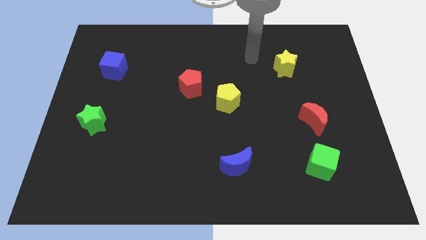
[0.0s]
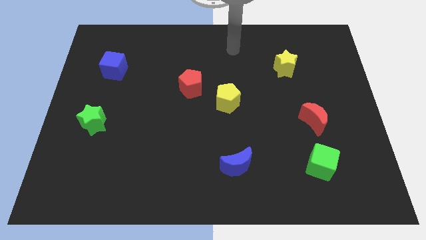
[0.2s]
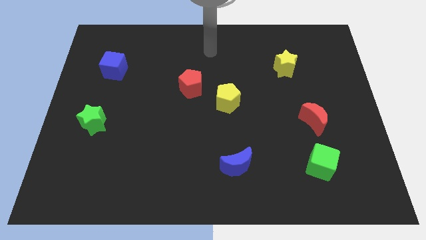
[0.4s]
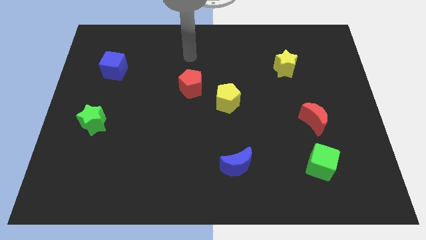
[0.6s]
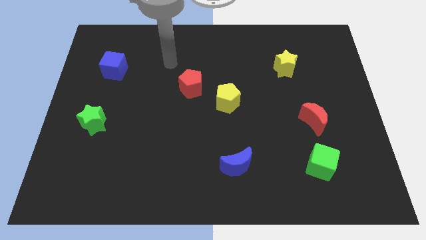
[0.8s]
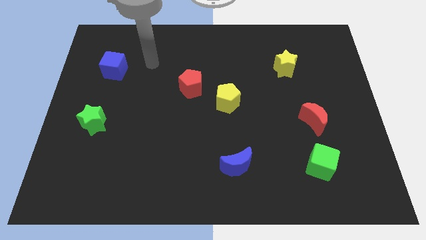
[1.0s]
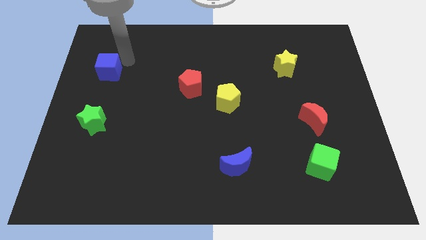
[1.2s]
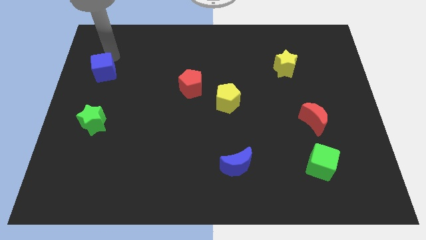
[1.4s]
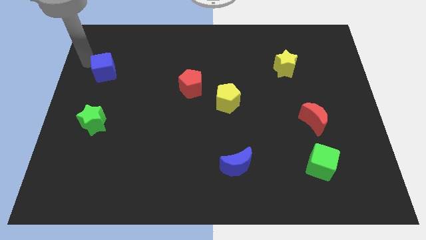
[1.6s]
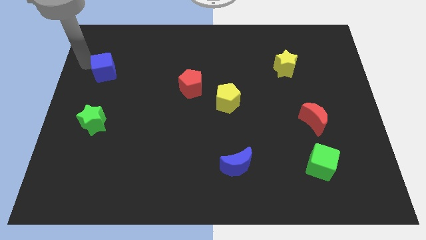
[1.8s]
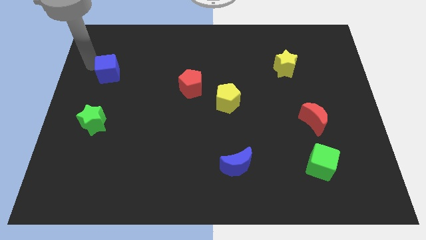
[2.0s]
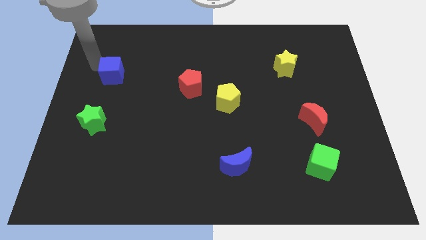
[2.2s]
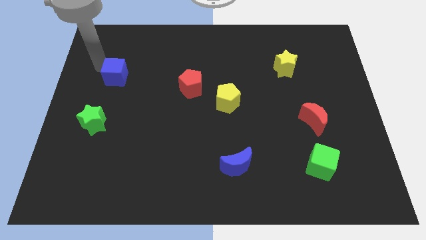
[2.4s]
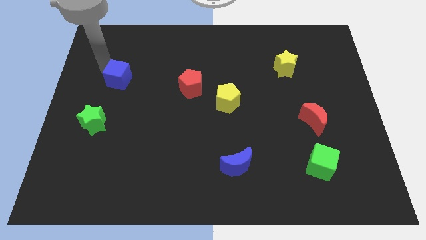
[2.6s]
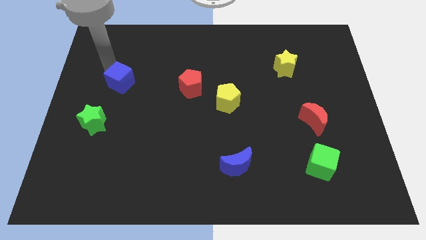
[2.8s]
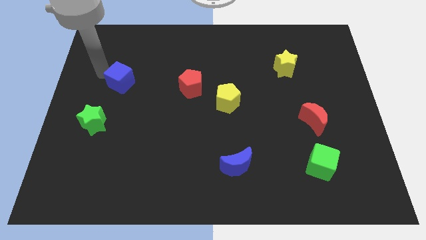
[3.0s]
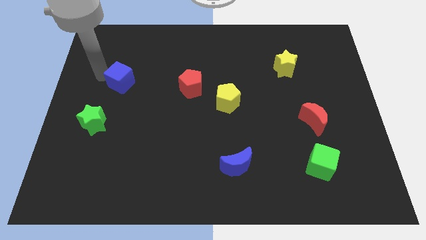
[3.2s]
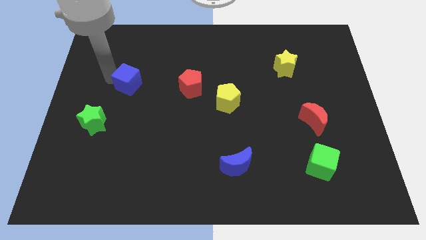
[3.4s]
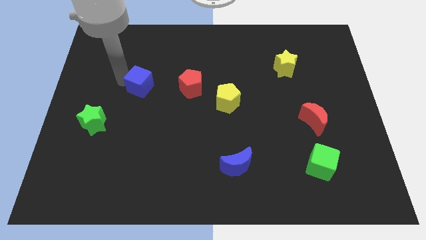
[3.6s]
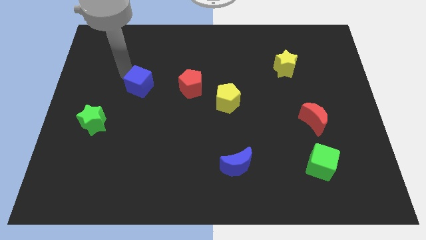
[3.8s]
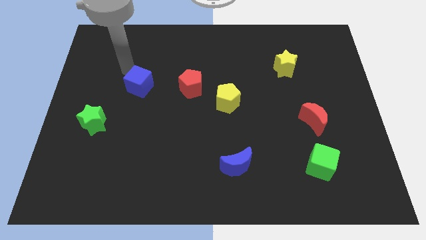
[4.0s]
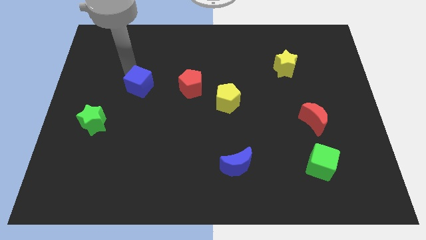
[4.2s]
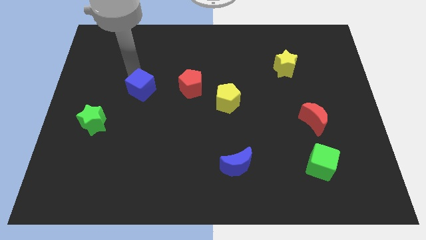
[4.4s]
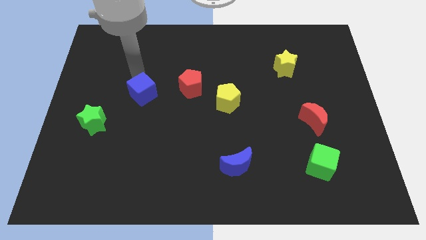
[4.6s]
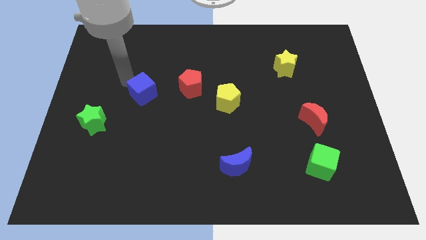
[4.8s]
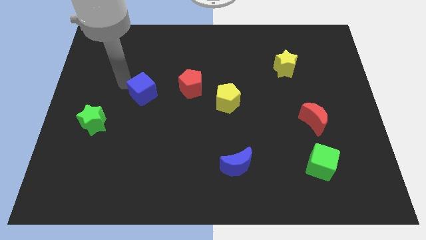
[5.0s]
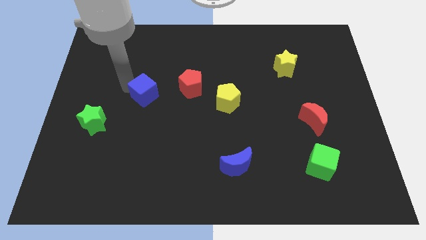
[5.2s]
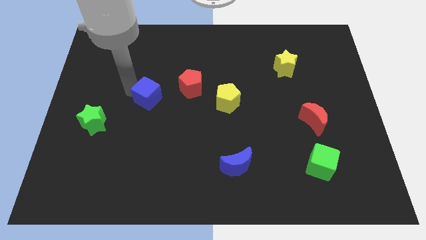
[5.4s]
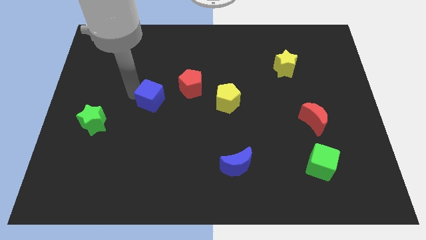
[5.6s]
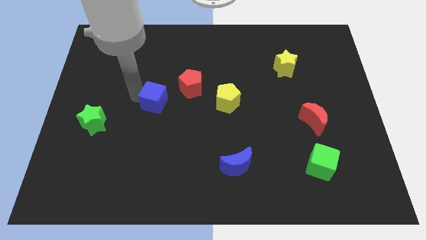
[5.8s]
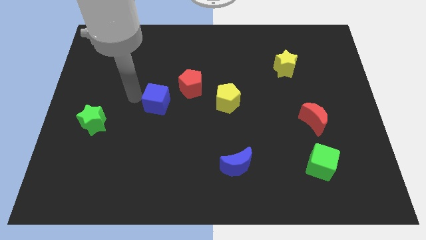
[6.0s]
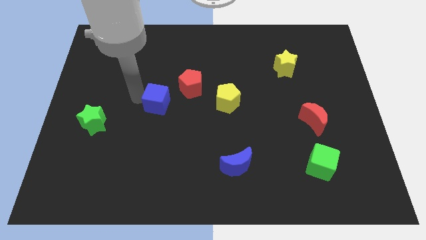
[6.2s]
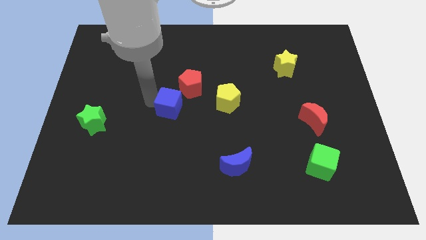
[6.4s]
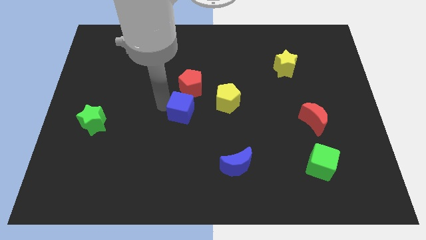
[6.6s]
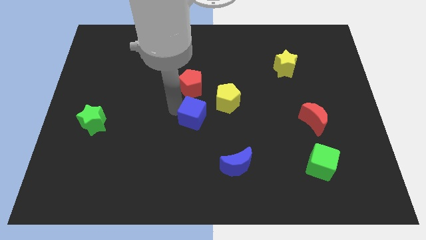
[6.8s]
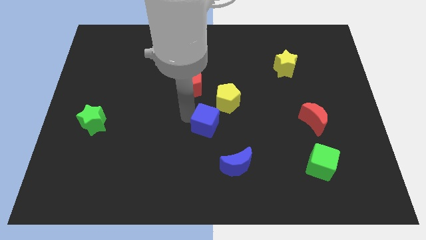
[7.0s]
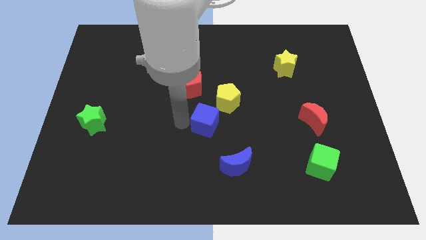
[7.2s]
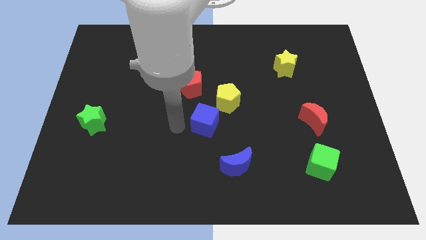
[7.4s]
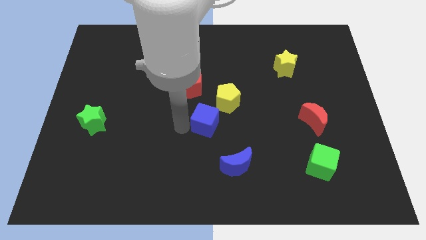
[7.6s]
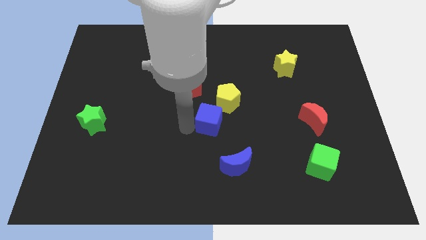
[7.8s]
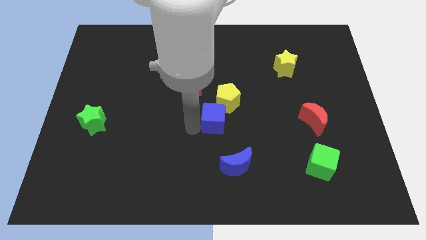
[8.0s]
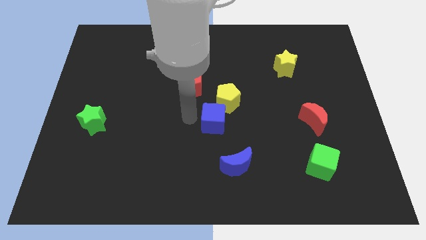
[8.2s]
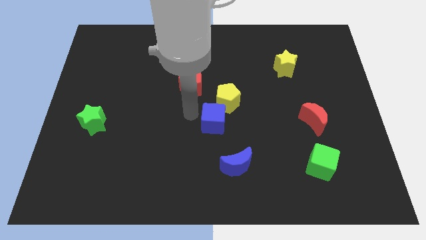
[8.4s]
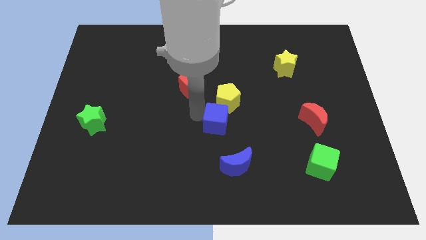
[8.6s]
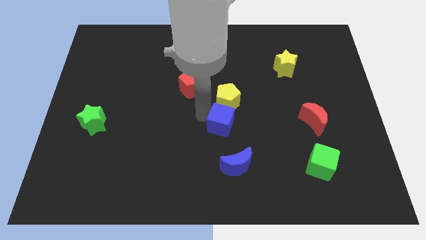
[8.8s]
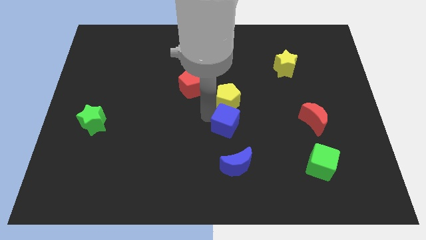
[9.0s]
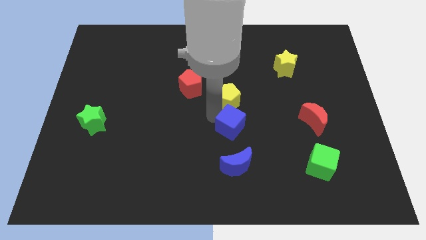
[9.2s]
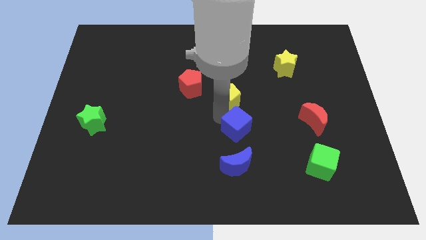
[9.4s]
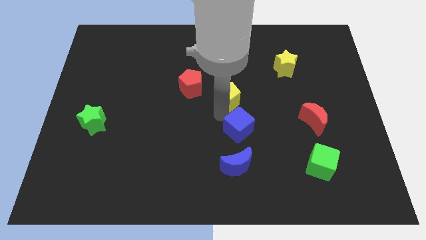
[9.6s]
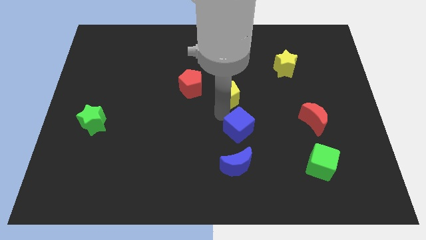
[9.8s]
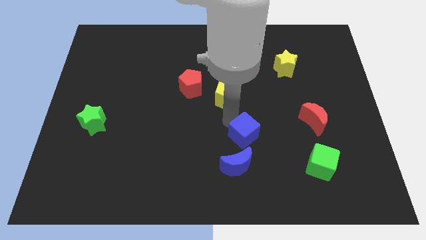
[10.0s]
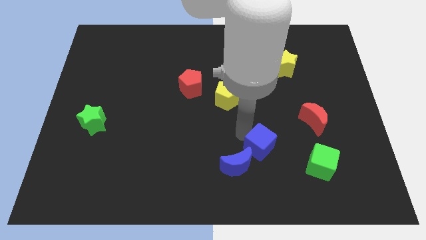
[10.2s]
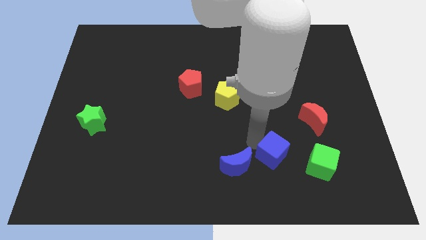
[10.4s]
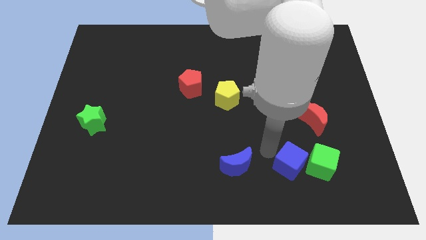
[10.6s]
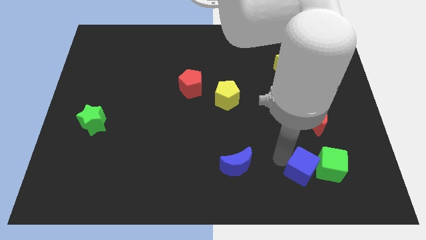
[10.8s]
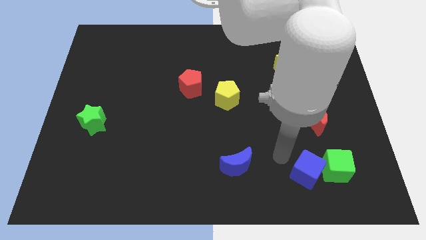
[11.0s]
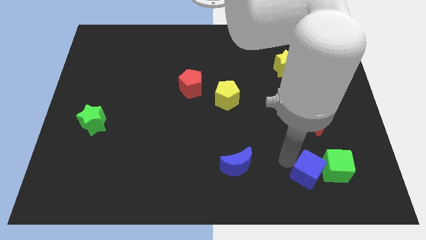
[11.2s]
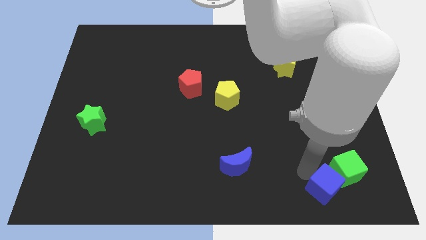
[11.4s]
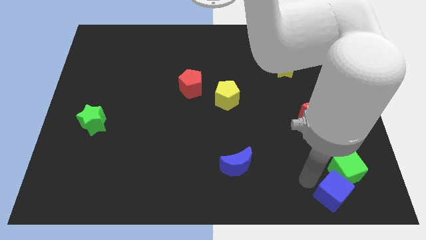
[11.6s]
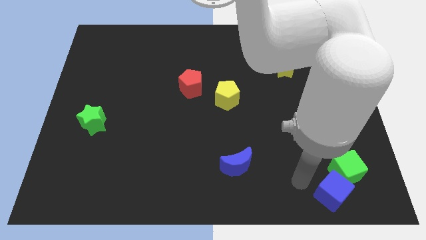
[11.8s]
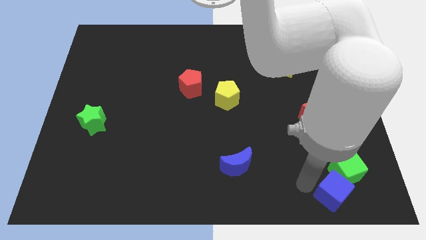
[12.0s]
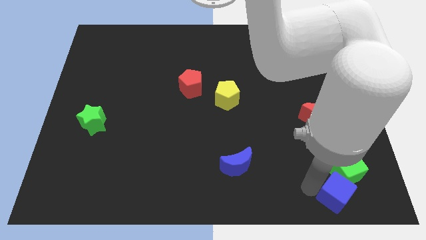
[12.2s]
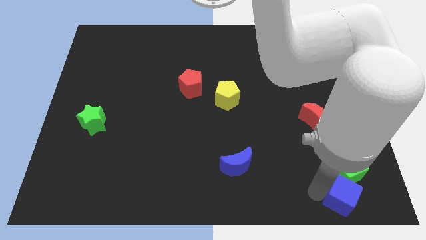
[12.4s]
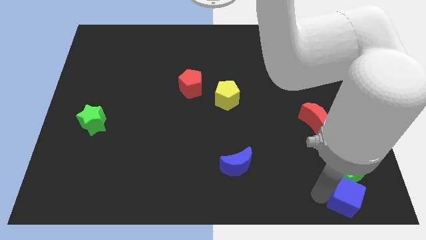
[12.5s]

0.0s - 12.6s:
move the blue cube to the bottom right

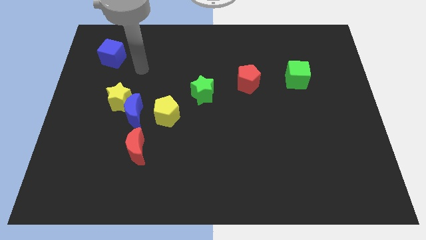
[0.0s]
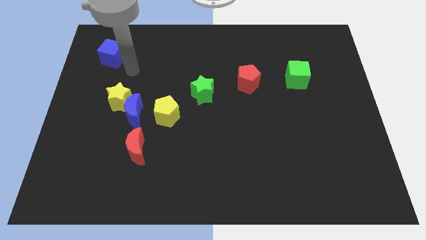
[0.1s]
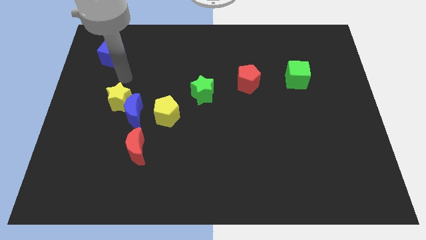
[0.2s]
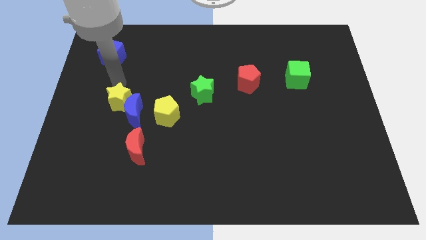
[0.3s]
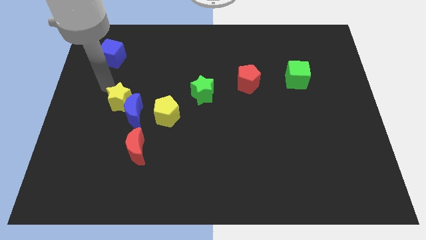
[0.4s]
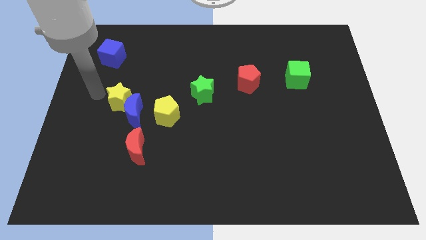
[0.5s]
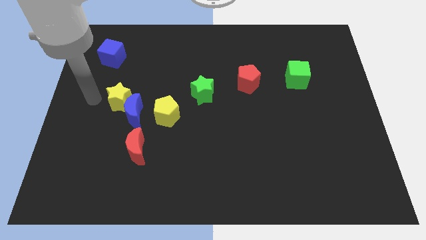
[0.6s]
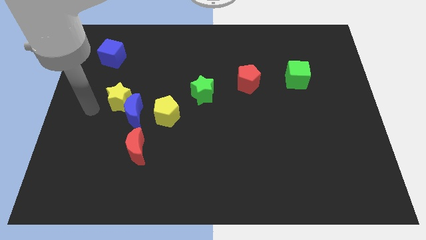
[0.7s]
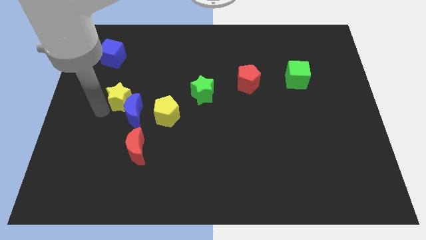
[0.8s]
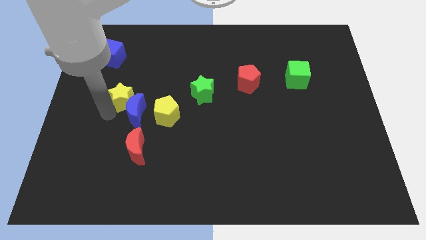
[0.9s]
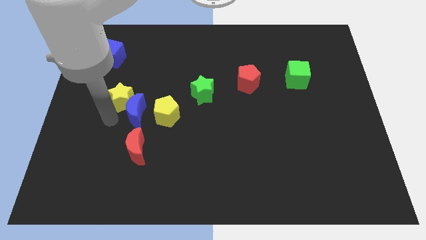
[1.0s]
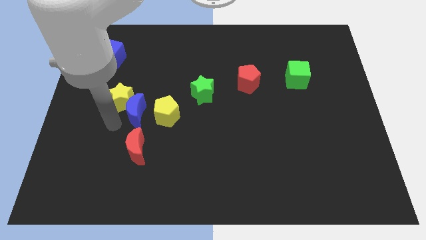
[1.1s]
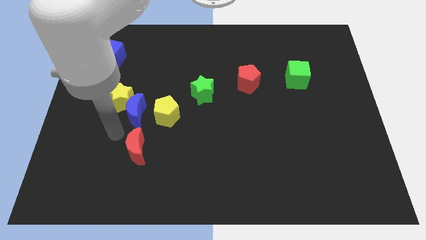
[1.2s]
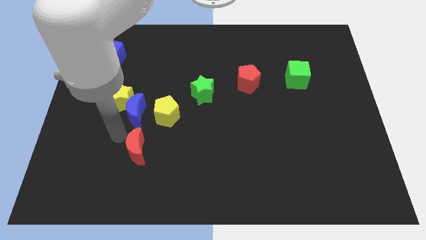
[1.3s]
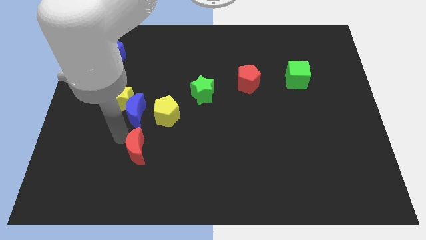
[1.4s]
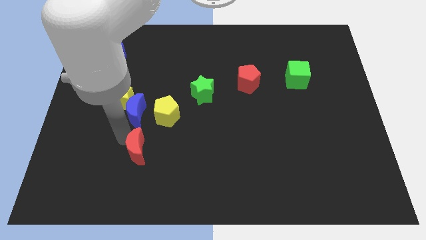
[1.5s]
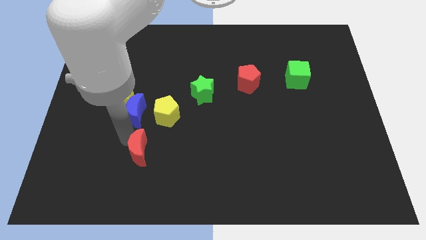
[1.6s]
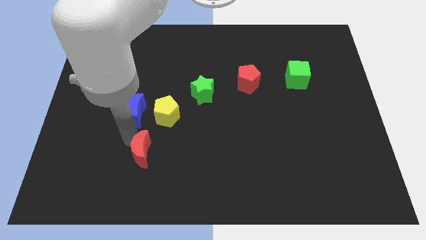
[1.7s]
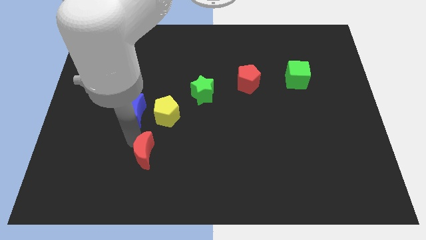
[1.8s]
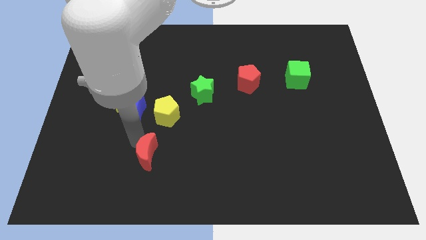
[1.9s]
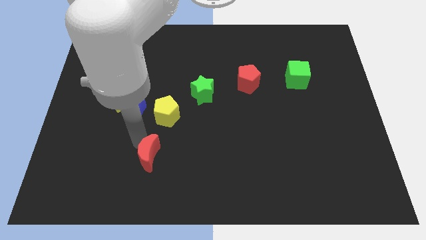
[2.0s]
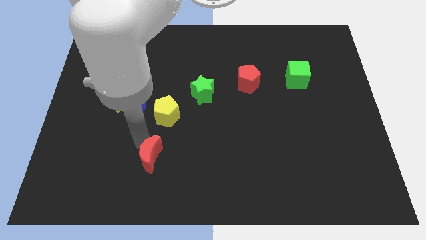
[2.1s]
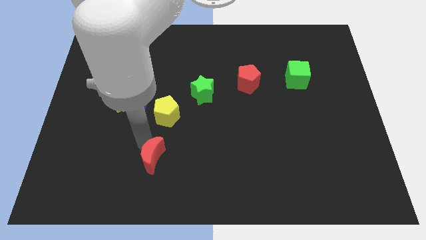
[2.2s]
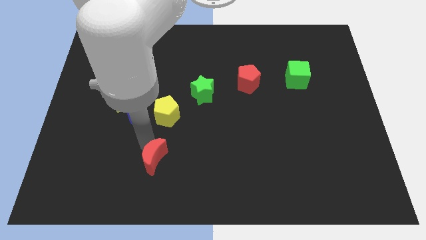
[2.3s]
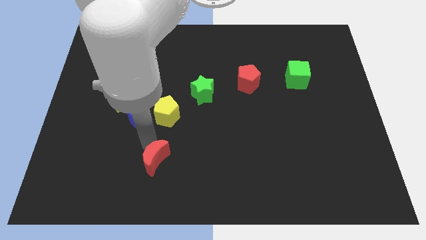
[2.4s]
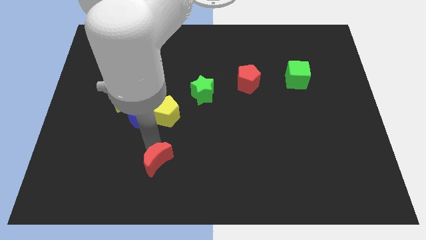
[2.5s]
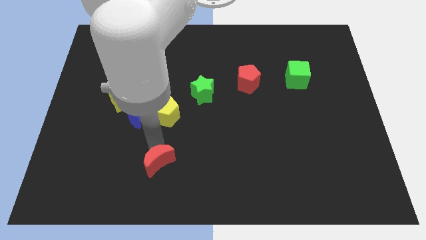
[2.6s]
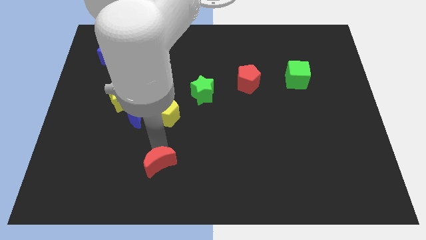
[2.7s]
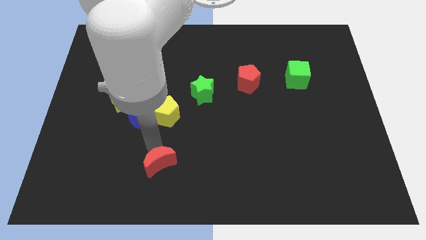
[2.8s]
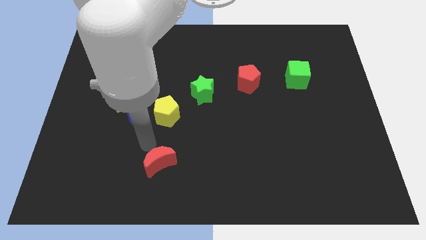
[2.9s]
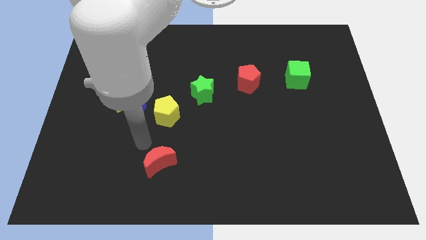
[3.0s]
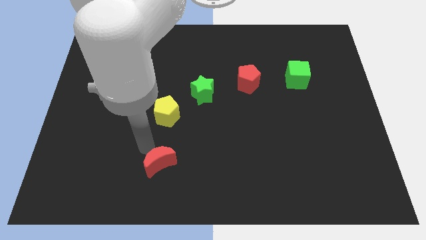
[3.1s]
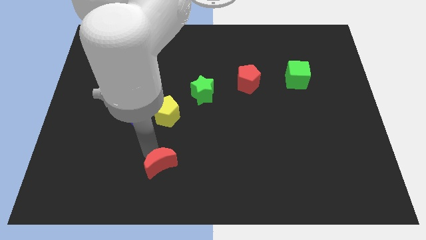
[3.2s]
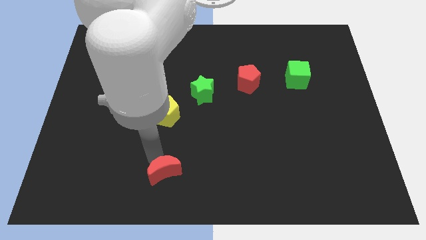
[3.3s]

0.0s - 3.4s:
slide the red moon to the bottom side
